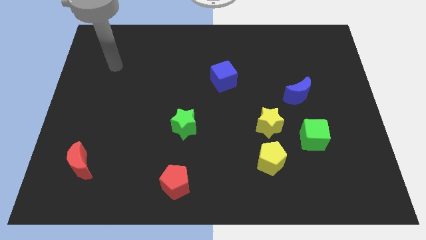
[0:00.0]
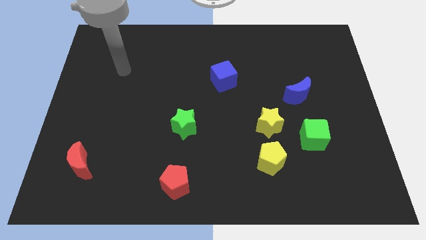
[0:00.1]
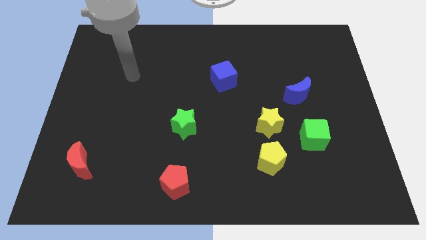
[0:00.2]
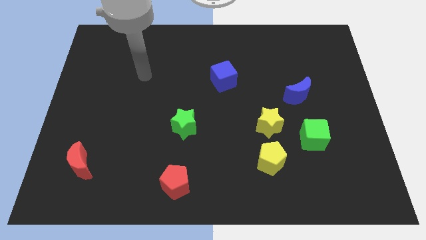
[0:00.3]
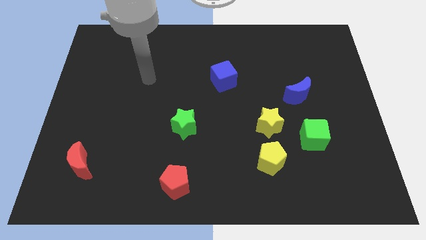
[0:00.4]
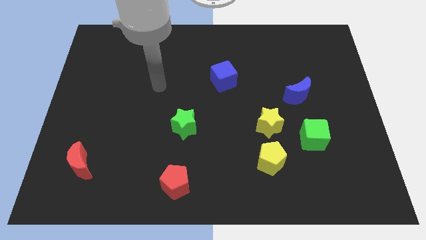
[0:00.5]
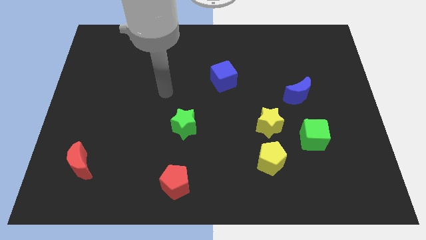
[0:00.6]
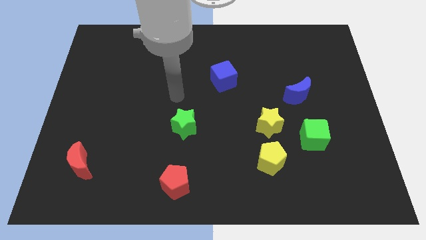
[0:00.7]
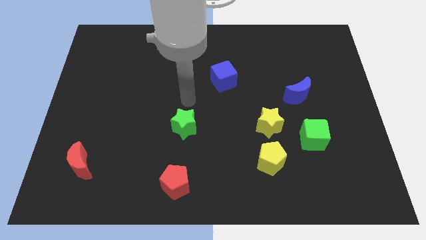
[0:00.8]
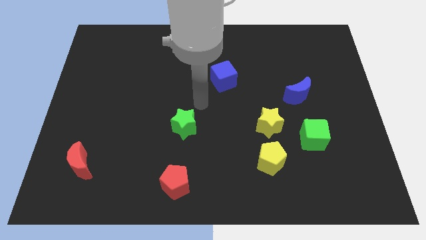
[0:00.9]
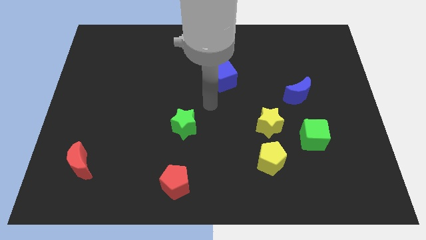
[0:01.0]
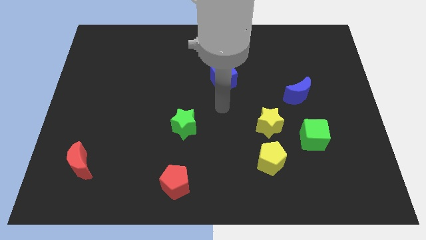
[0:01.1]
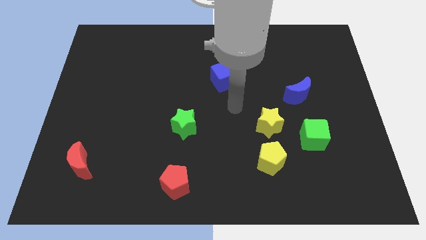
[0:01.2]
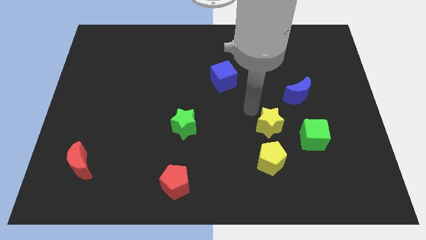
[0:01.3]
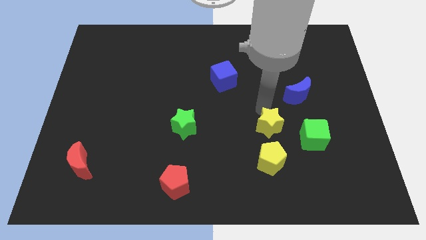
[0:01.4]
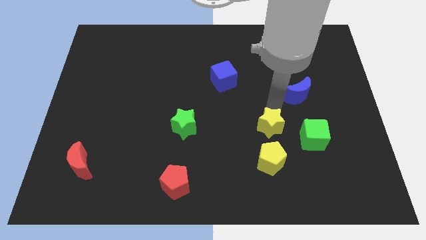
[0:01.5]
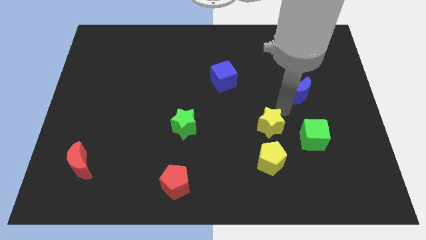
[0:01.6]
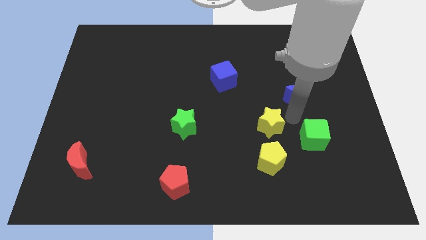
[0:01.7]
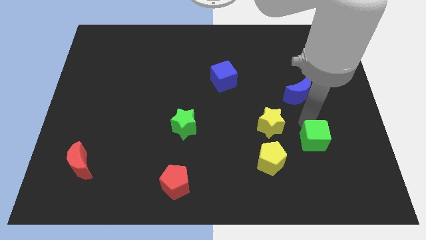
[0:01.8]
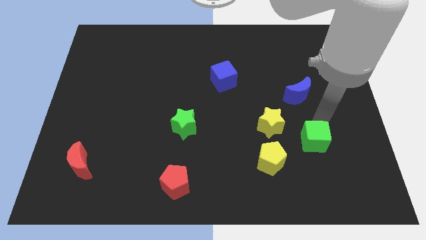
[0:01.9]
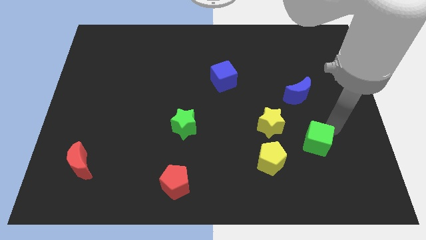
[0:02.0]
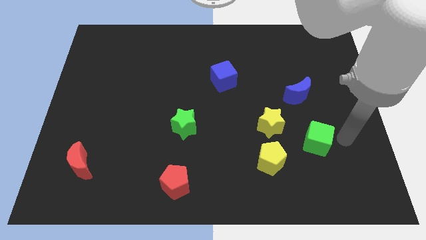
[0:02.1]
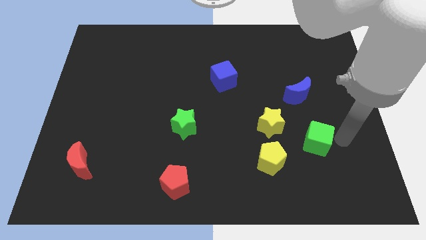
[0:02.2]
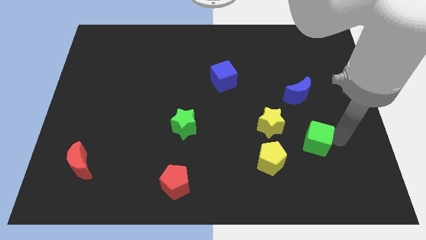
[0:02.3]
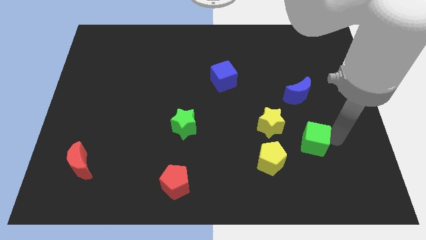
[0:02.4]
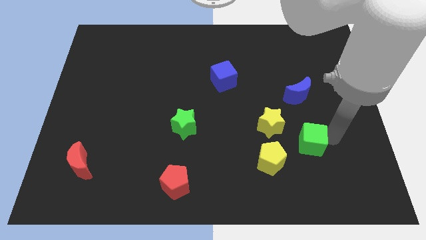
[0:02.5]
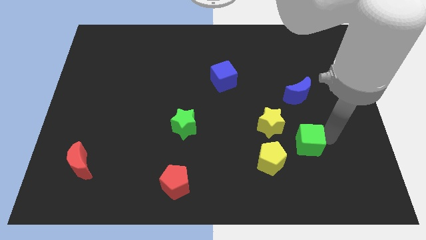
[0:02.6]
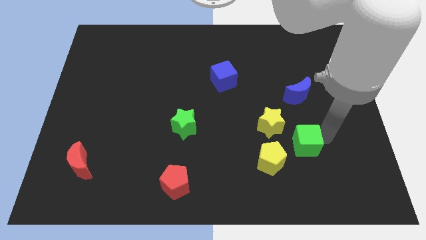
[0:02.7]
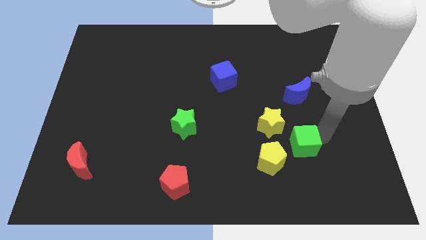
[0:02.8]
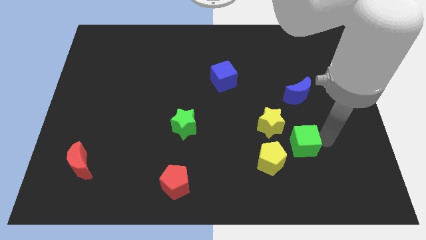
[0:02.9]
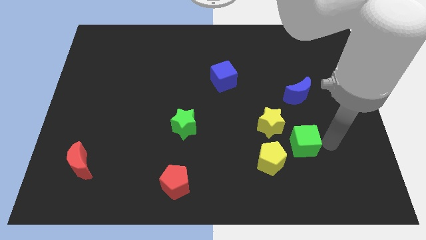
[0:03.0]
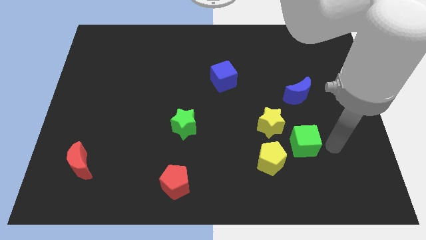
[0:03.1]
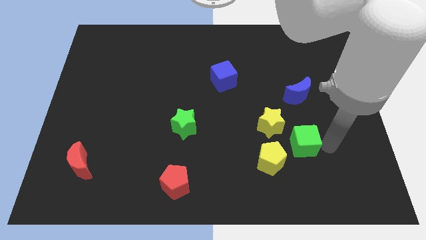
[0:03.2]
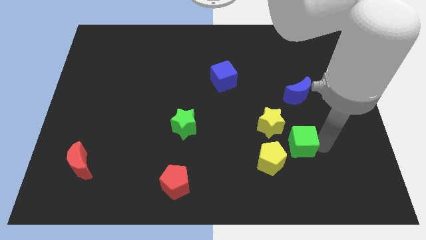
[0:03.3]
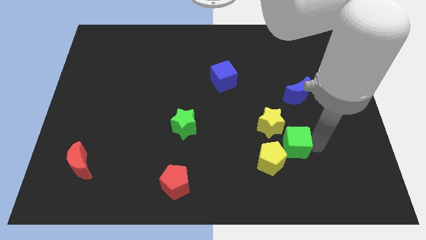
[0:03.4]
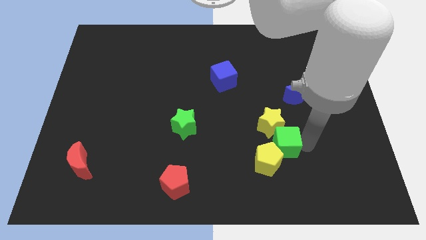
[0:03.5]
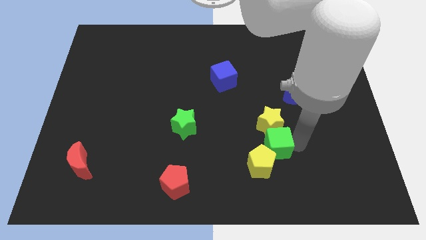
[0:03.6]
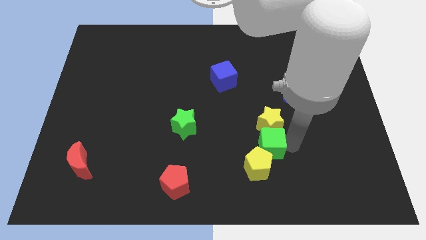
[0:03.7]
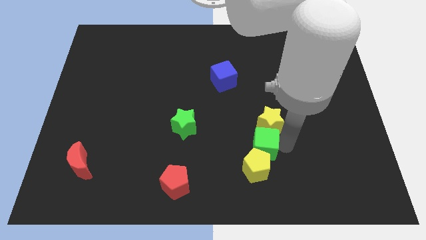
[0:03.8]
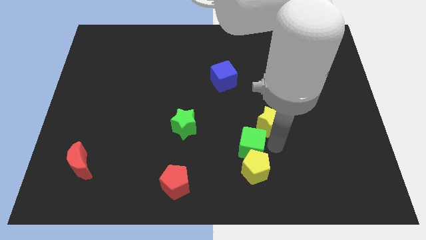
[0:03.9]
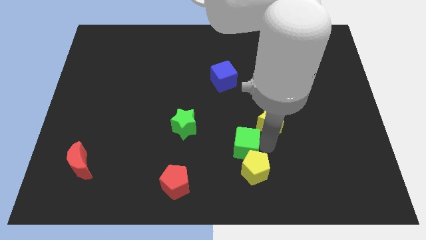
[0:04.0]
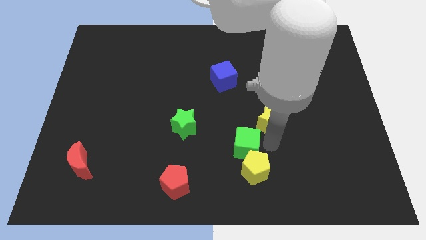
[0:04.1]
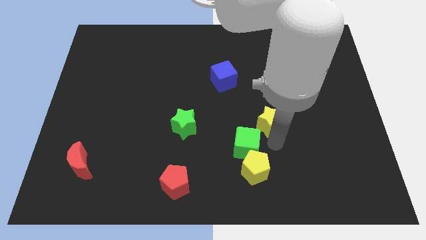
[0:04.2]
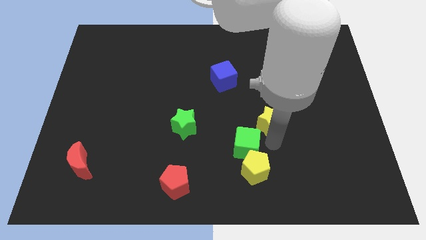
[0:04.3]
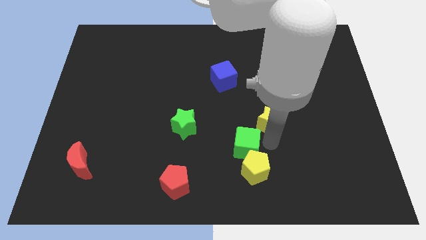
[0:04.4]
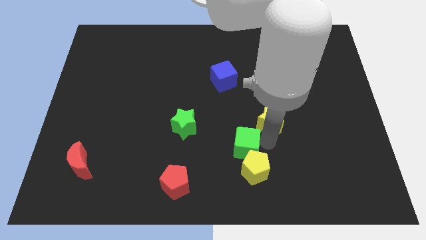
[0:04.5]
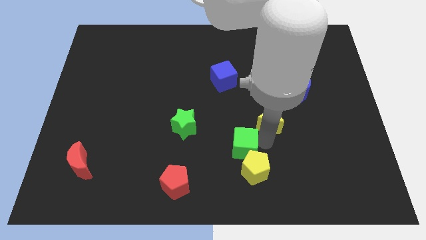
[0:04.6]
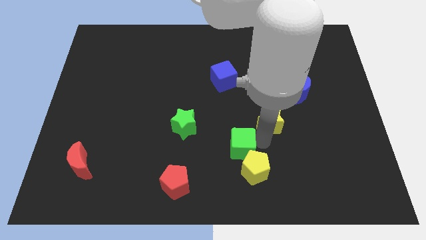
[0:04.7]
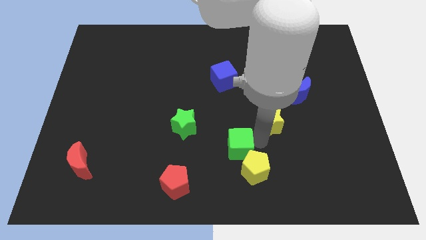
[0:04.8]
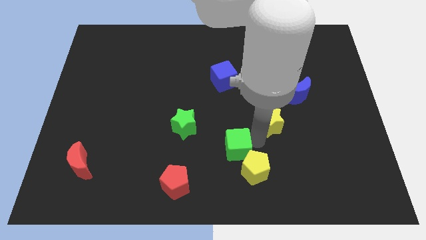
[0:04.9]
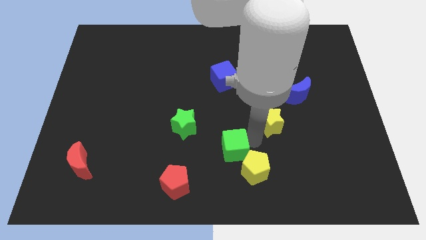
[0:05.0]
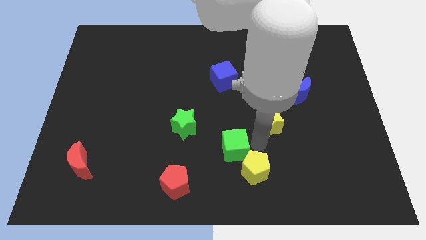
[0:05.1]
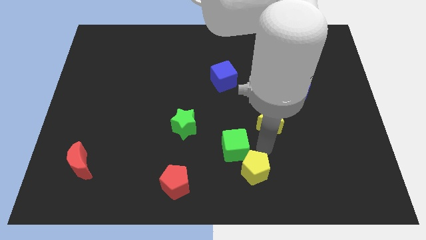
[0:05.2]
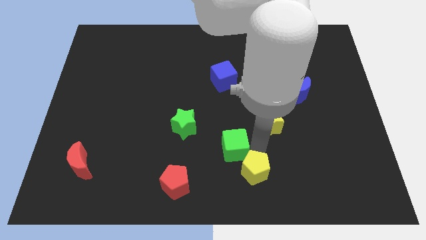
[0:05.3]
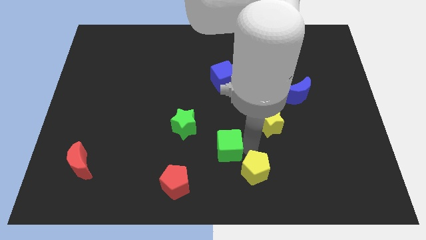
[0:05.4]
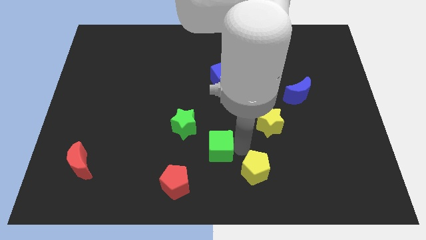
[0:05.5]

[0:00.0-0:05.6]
push the green cube left

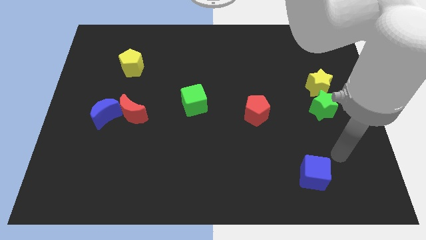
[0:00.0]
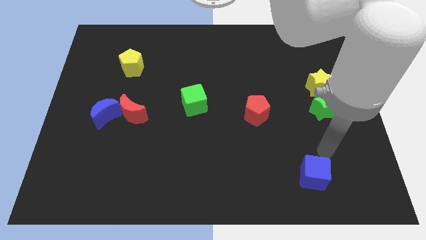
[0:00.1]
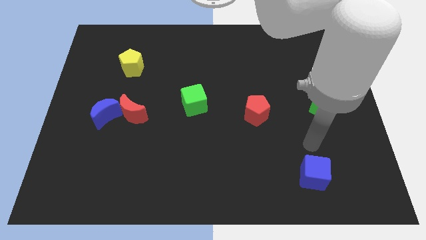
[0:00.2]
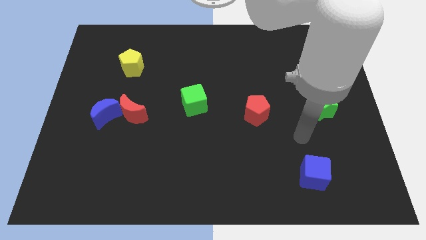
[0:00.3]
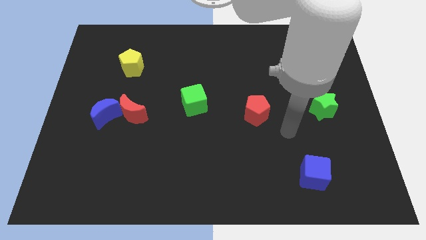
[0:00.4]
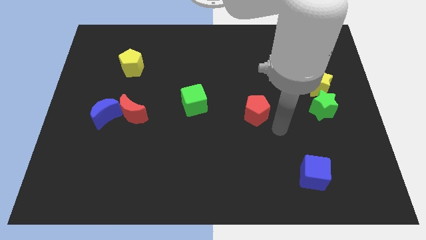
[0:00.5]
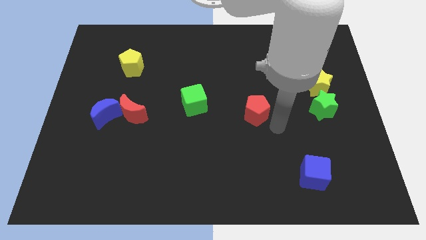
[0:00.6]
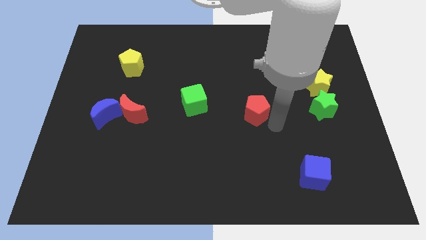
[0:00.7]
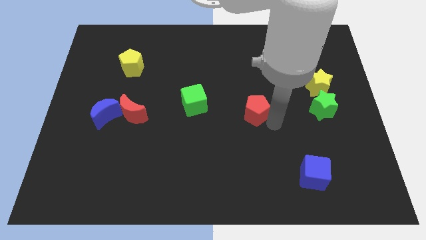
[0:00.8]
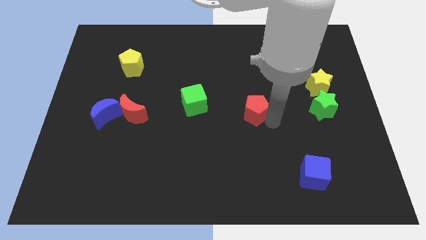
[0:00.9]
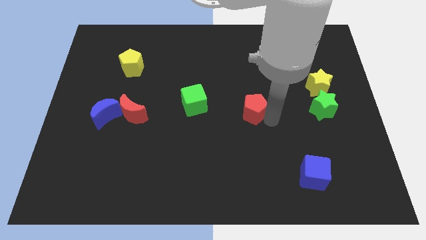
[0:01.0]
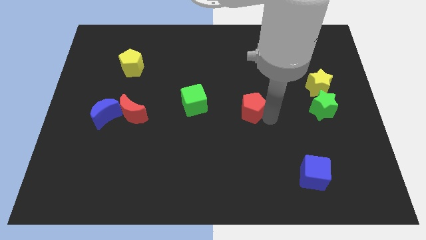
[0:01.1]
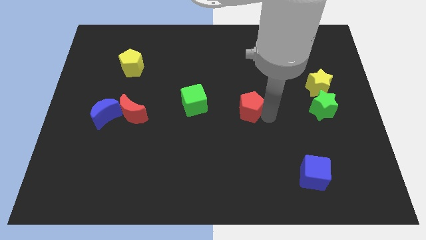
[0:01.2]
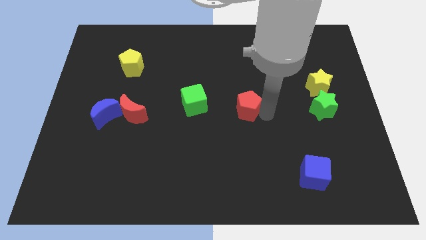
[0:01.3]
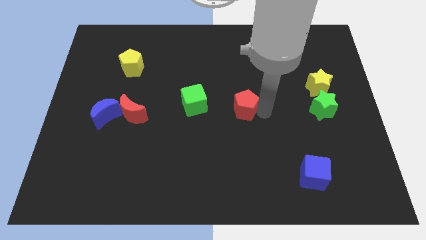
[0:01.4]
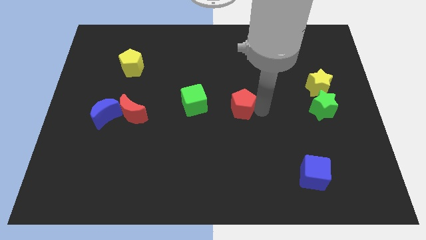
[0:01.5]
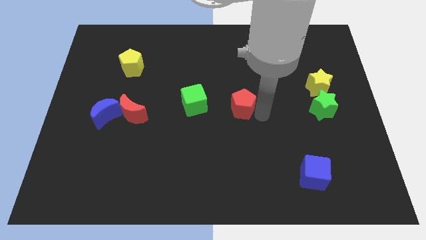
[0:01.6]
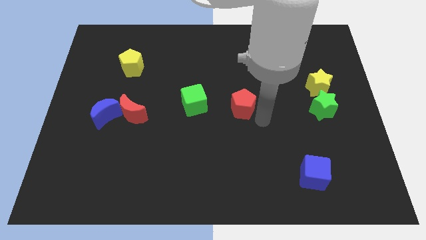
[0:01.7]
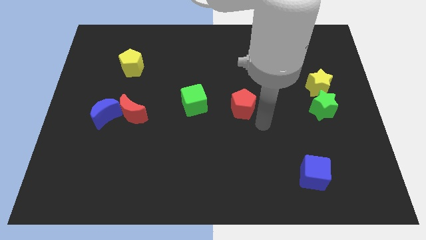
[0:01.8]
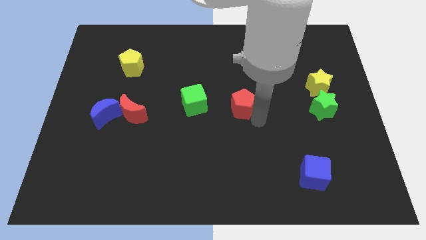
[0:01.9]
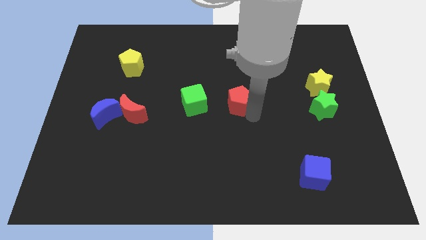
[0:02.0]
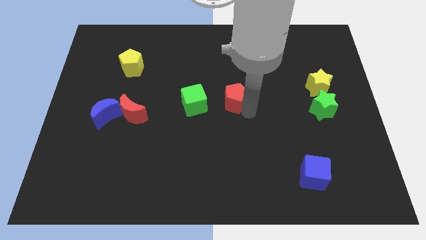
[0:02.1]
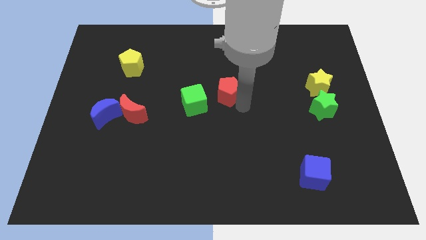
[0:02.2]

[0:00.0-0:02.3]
slightly slide the red pentagon diagonally up and to the left
